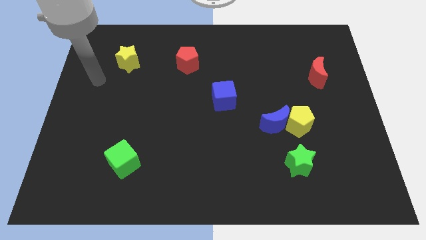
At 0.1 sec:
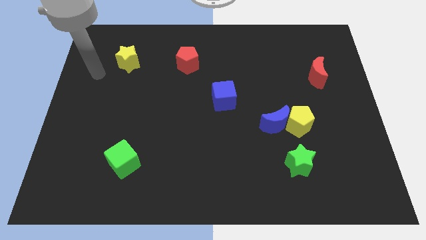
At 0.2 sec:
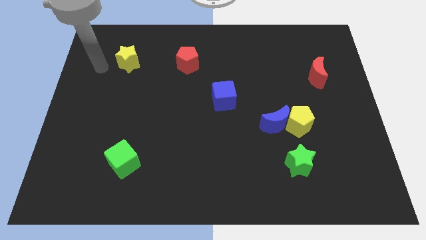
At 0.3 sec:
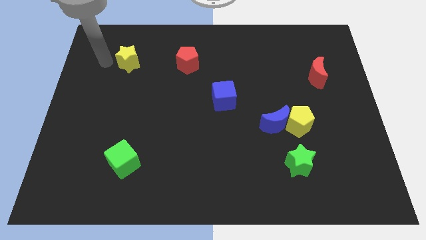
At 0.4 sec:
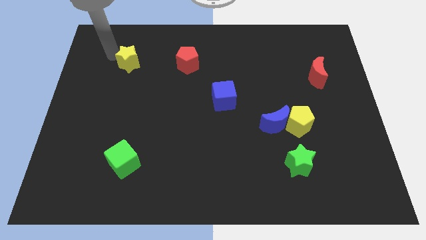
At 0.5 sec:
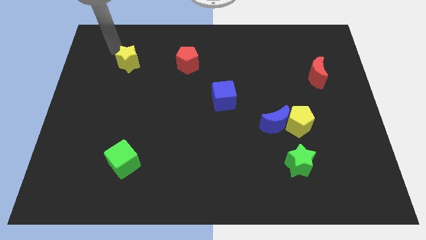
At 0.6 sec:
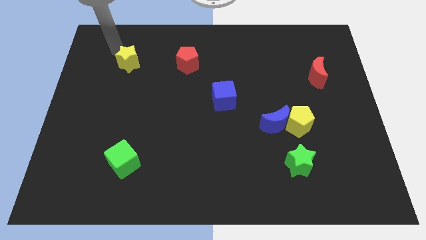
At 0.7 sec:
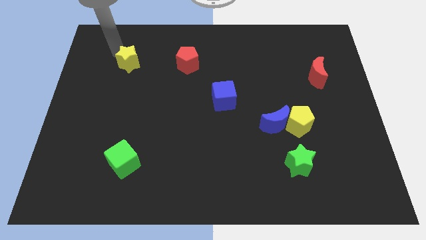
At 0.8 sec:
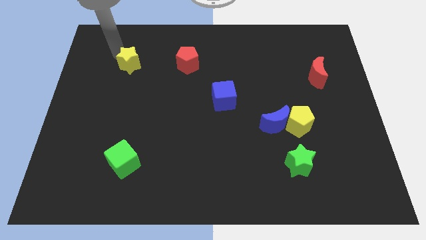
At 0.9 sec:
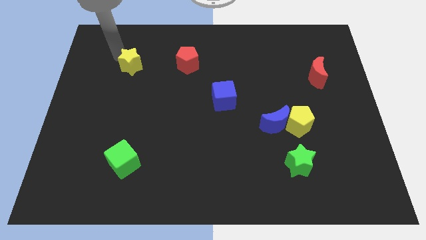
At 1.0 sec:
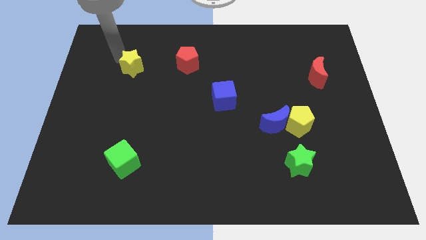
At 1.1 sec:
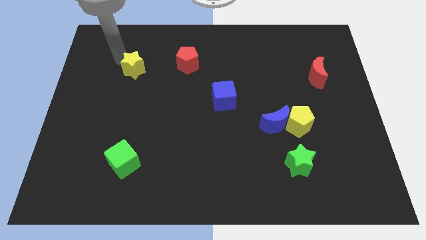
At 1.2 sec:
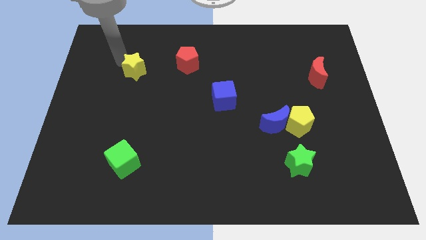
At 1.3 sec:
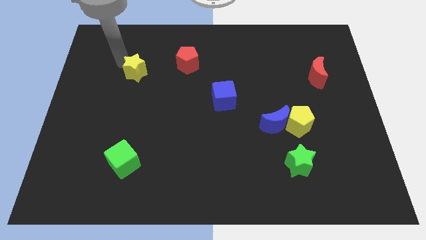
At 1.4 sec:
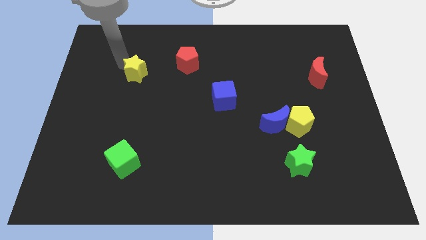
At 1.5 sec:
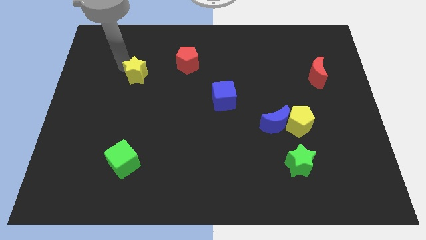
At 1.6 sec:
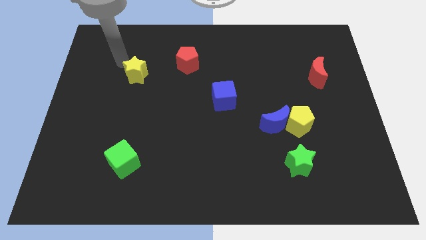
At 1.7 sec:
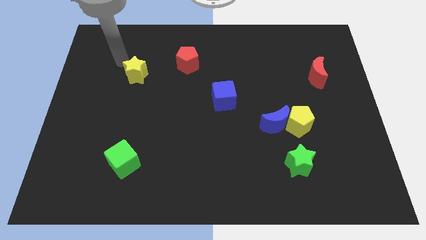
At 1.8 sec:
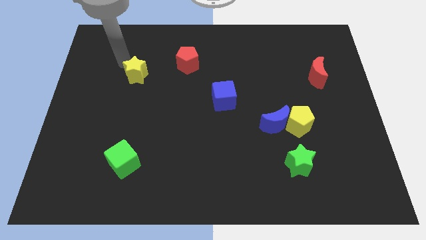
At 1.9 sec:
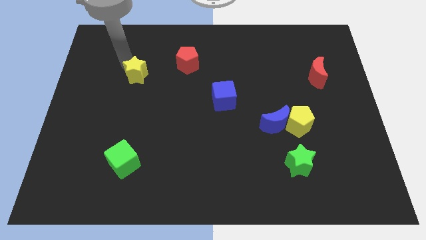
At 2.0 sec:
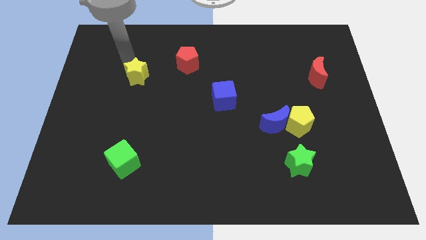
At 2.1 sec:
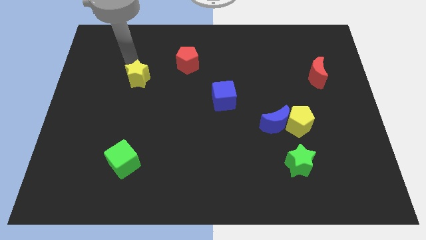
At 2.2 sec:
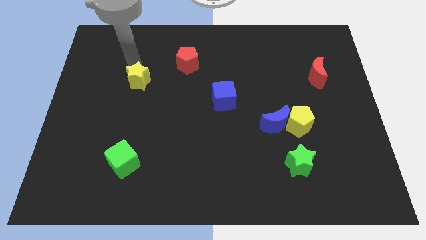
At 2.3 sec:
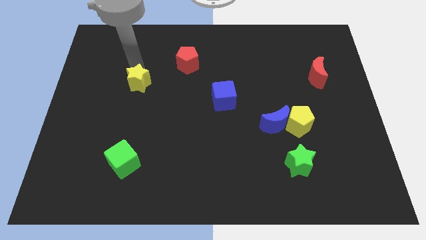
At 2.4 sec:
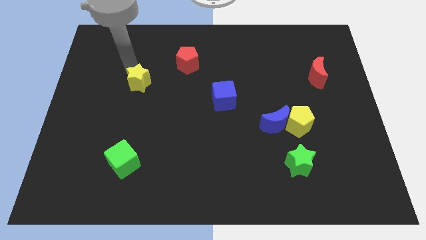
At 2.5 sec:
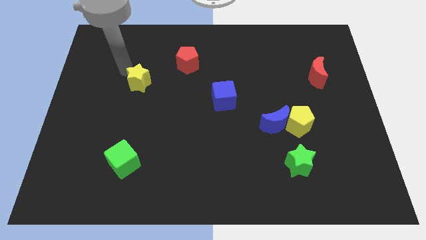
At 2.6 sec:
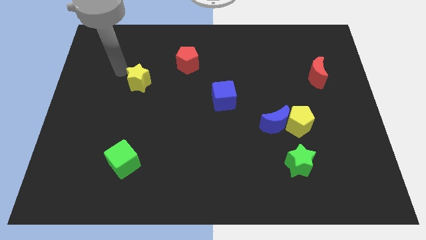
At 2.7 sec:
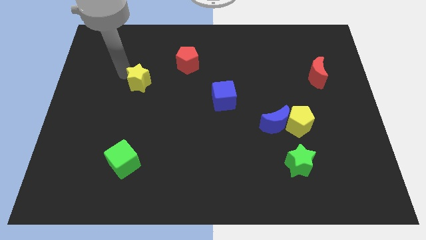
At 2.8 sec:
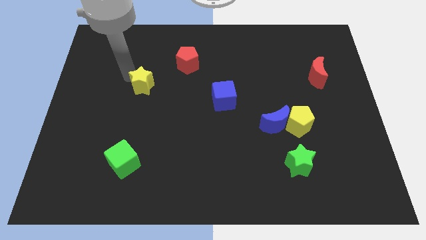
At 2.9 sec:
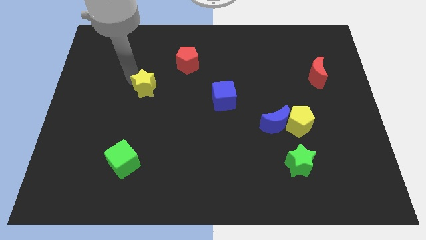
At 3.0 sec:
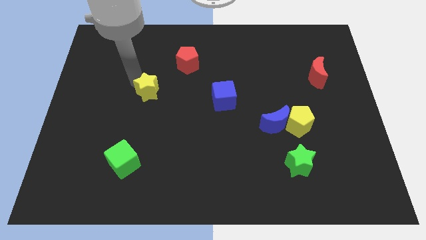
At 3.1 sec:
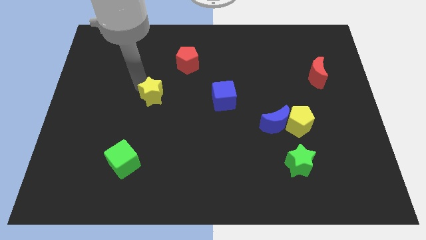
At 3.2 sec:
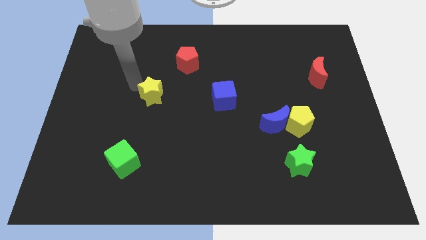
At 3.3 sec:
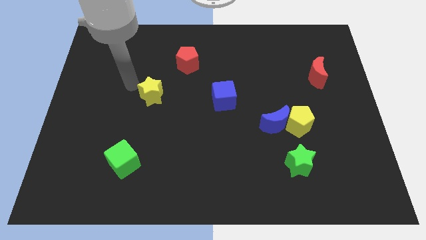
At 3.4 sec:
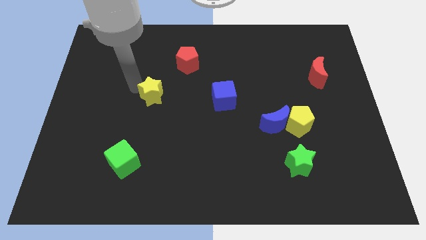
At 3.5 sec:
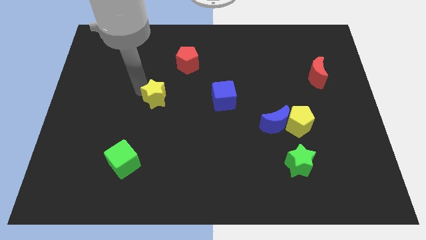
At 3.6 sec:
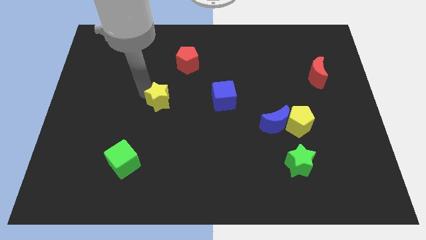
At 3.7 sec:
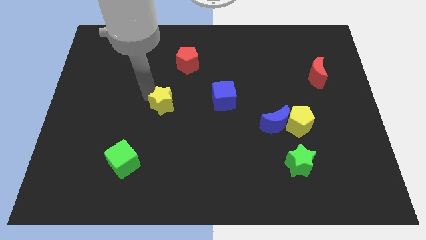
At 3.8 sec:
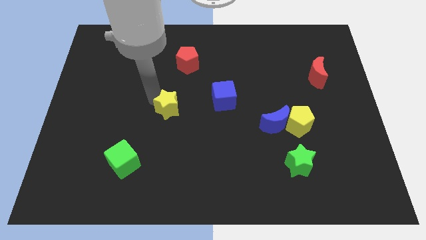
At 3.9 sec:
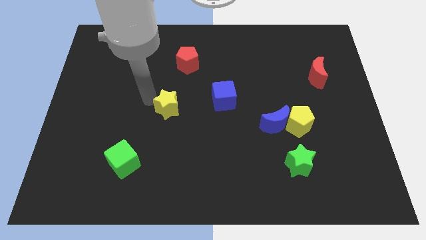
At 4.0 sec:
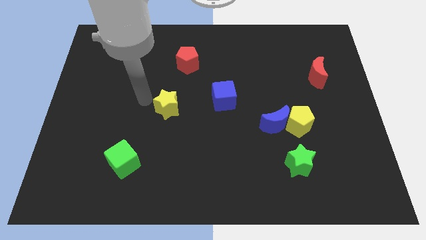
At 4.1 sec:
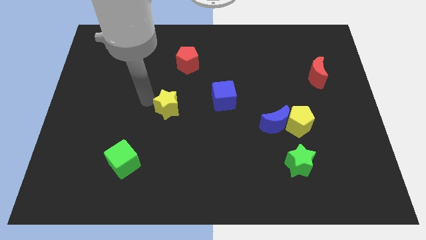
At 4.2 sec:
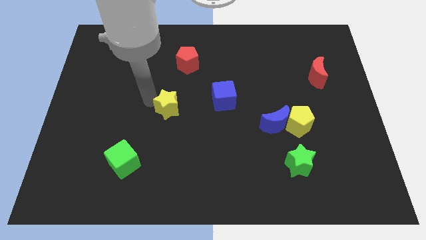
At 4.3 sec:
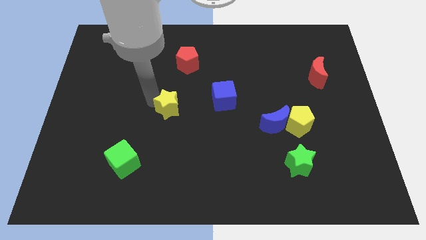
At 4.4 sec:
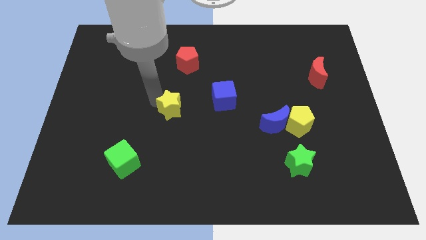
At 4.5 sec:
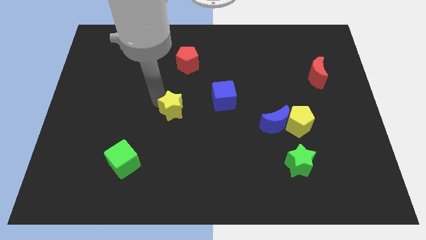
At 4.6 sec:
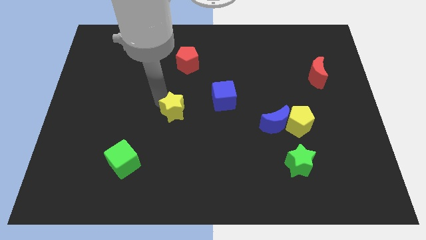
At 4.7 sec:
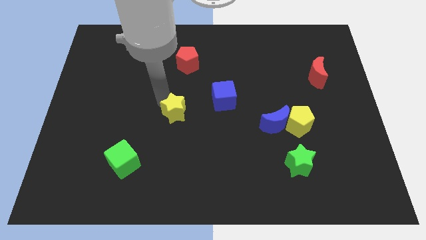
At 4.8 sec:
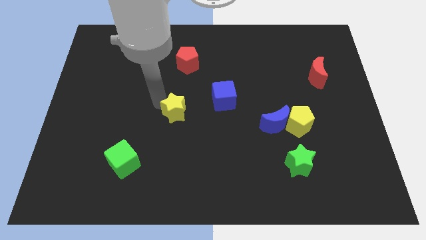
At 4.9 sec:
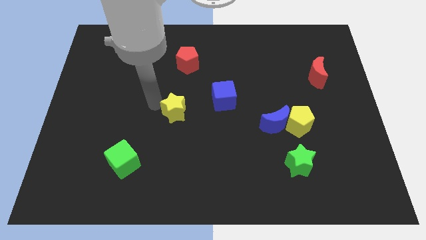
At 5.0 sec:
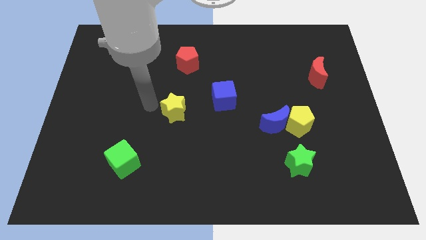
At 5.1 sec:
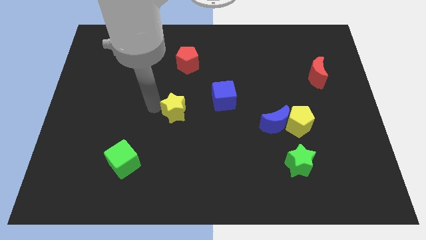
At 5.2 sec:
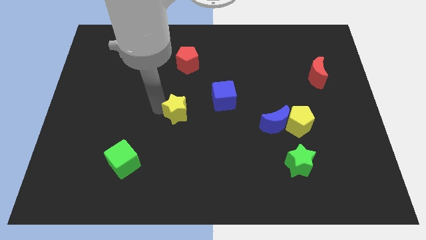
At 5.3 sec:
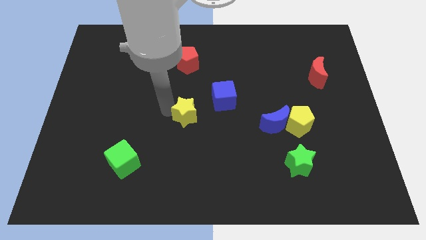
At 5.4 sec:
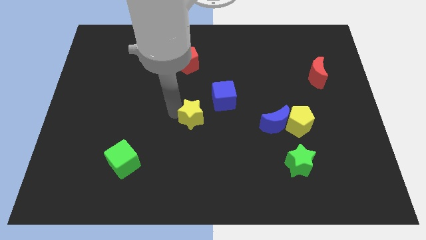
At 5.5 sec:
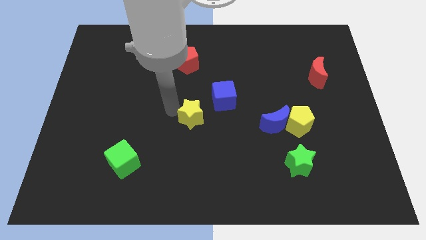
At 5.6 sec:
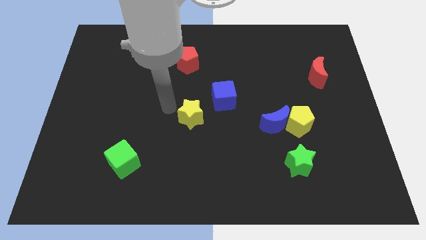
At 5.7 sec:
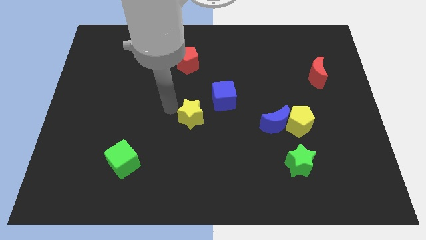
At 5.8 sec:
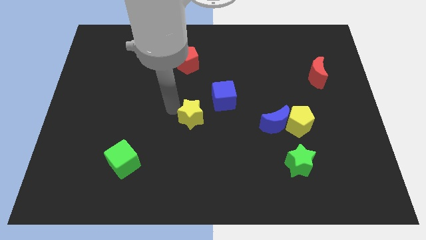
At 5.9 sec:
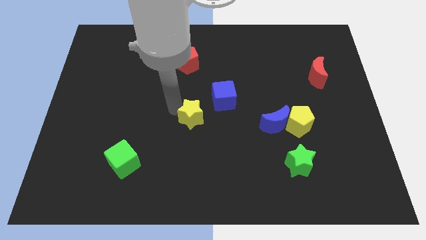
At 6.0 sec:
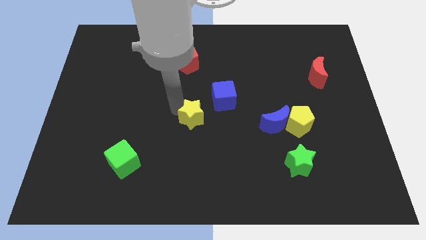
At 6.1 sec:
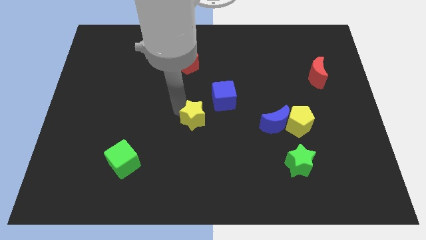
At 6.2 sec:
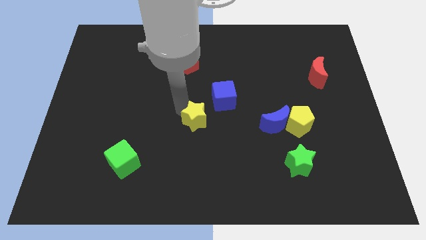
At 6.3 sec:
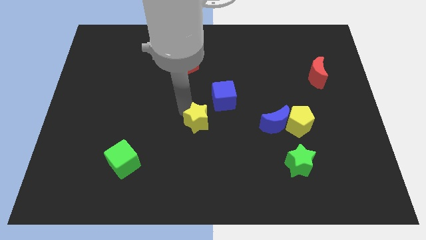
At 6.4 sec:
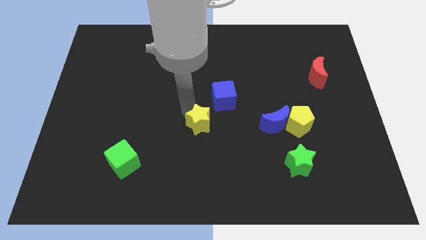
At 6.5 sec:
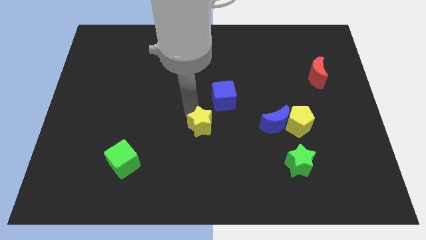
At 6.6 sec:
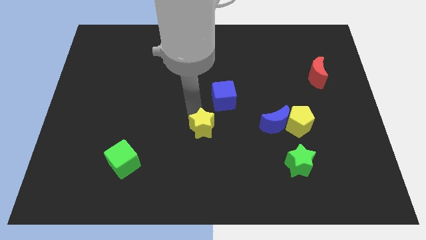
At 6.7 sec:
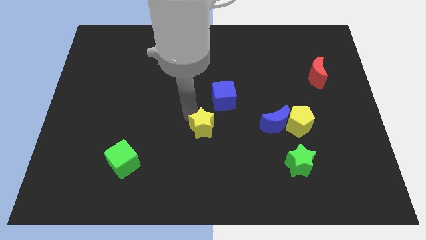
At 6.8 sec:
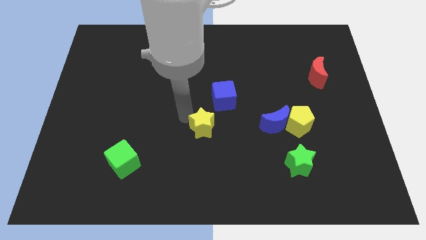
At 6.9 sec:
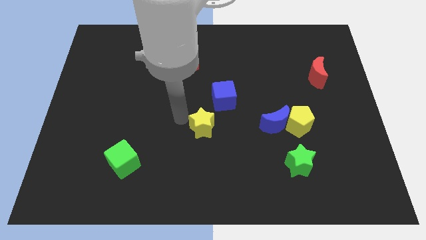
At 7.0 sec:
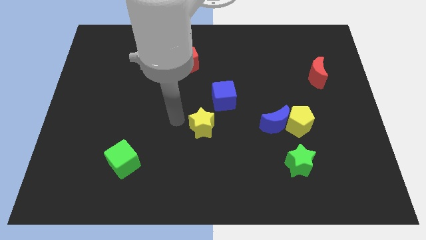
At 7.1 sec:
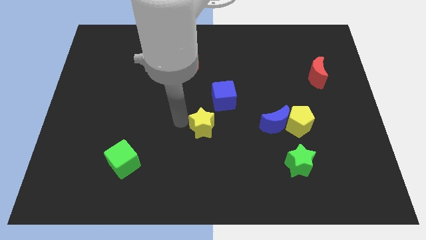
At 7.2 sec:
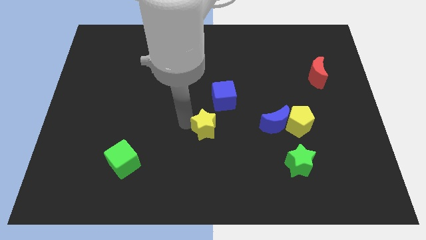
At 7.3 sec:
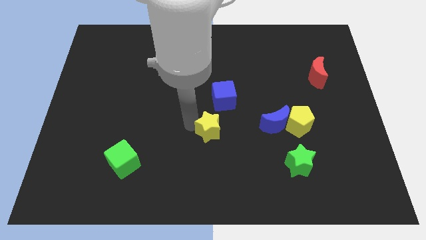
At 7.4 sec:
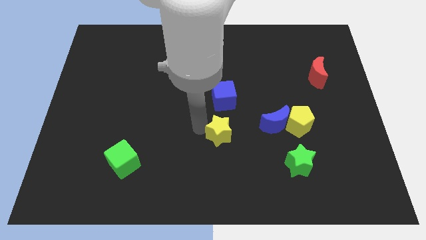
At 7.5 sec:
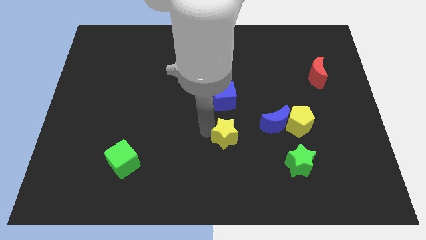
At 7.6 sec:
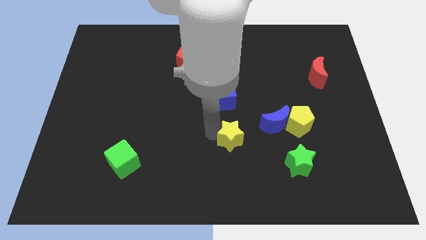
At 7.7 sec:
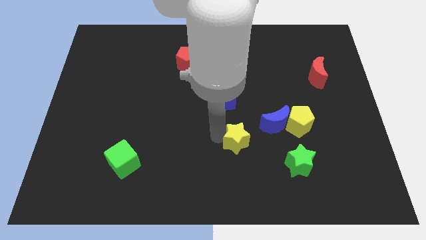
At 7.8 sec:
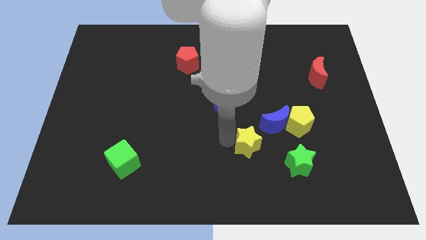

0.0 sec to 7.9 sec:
slide the yellow star to the top left side of the green star

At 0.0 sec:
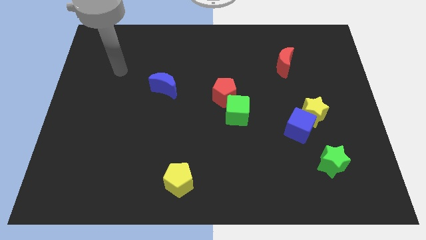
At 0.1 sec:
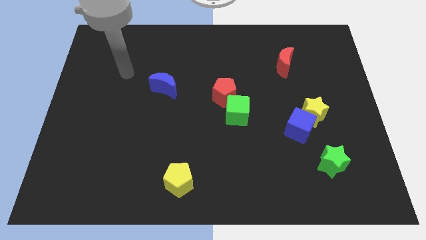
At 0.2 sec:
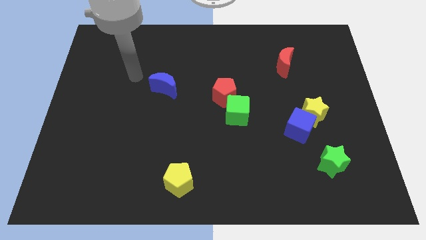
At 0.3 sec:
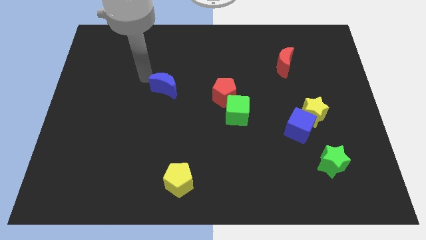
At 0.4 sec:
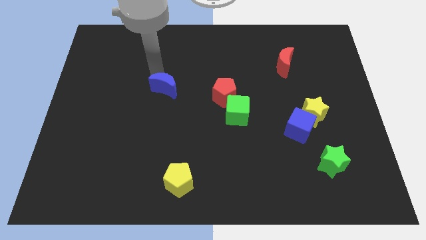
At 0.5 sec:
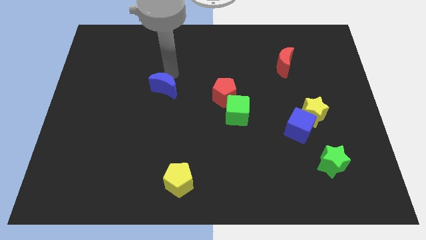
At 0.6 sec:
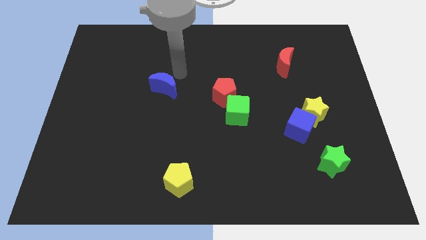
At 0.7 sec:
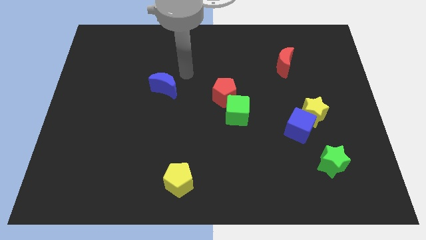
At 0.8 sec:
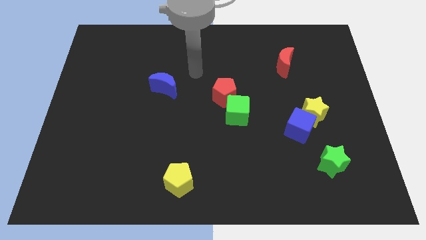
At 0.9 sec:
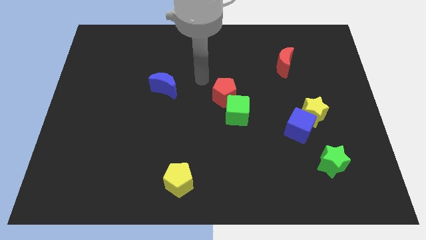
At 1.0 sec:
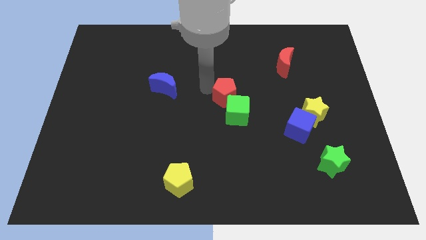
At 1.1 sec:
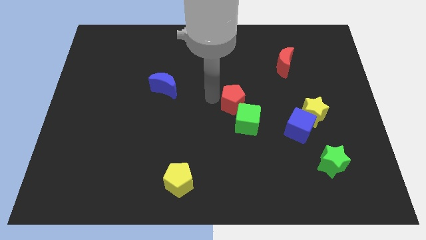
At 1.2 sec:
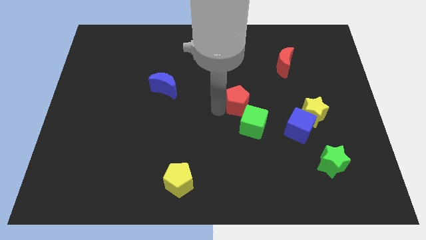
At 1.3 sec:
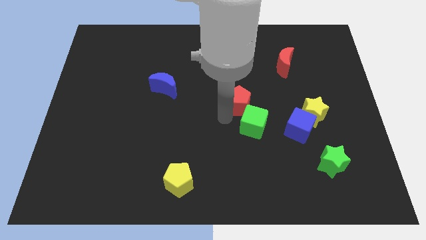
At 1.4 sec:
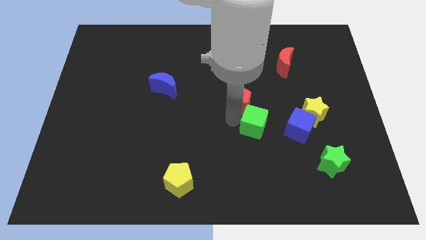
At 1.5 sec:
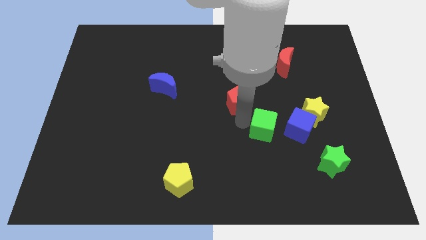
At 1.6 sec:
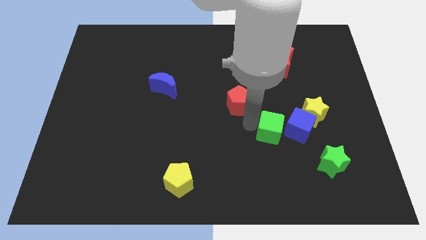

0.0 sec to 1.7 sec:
put the green cube to the bottom left of the yellow star
